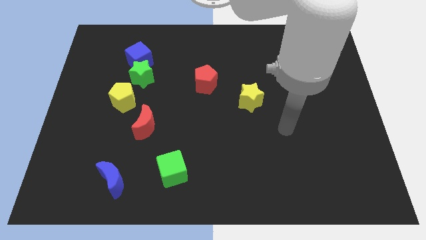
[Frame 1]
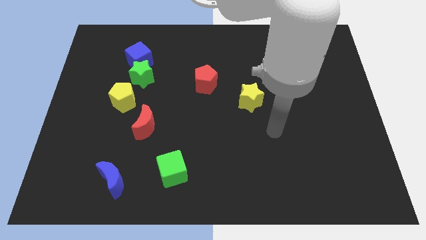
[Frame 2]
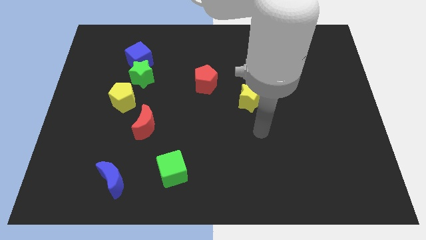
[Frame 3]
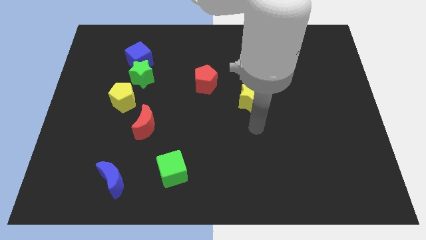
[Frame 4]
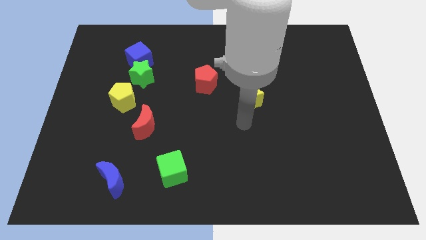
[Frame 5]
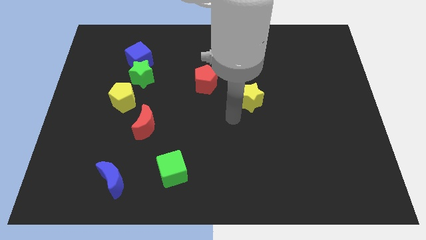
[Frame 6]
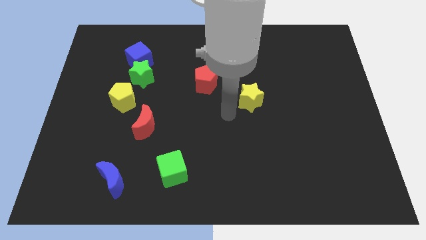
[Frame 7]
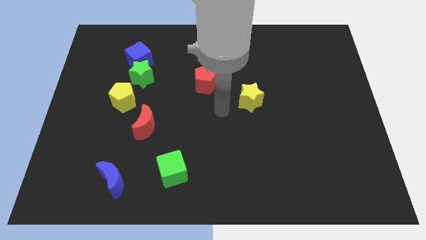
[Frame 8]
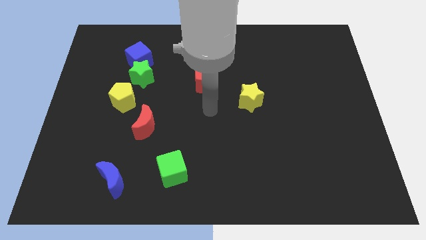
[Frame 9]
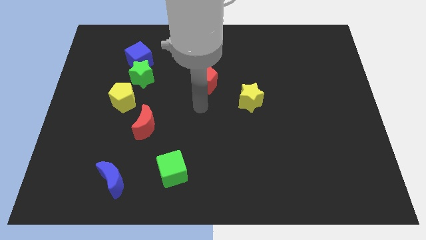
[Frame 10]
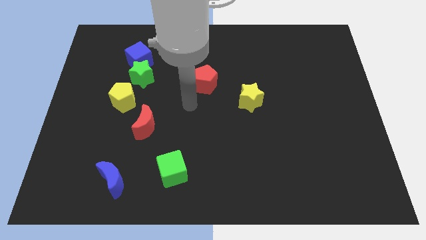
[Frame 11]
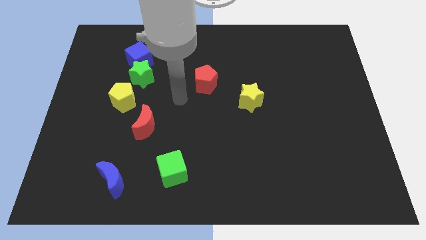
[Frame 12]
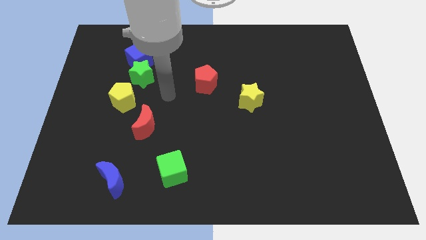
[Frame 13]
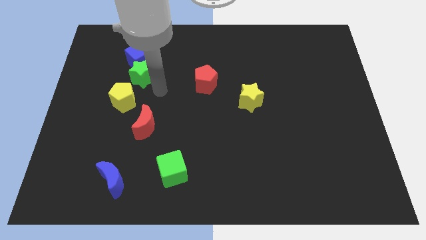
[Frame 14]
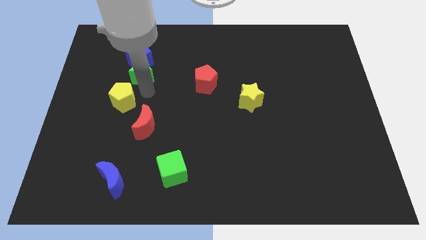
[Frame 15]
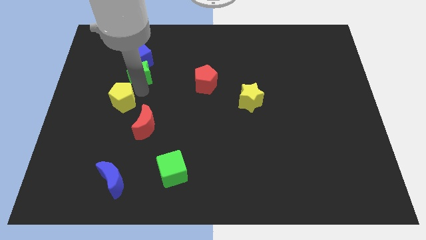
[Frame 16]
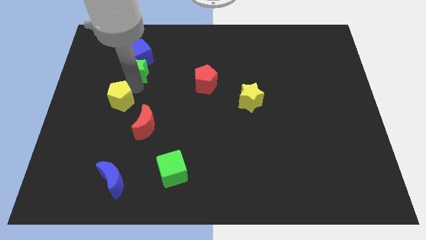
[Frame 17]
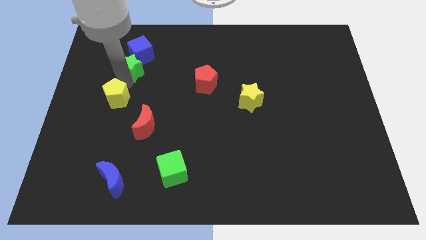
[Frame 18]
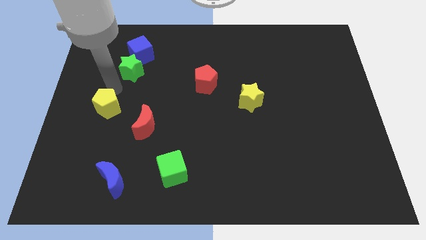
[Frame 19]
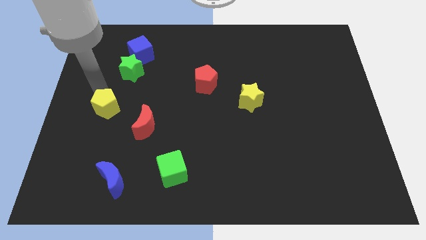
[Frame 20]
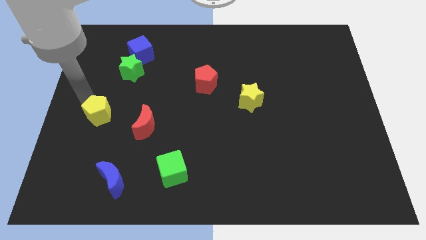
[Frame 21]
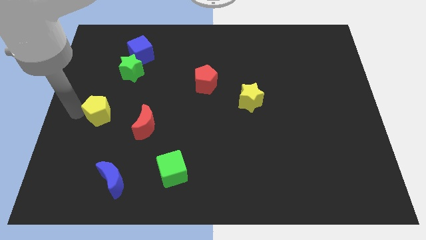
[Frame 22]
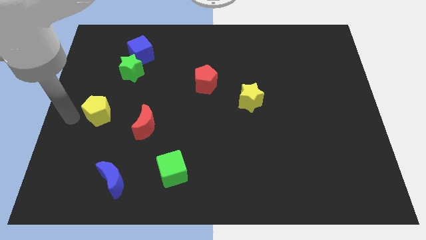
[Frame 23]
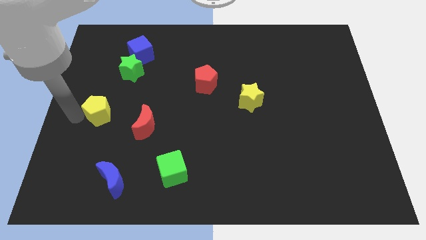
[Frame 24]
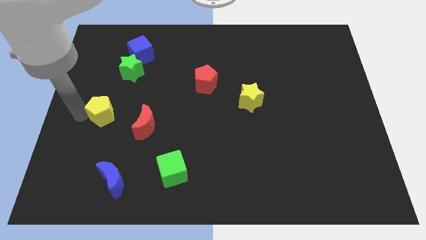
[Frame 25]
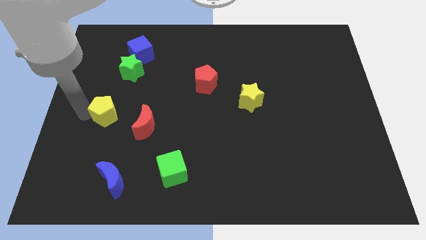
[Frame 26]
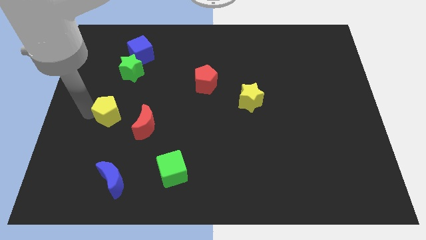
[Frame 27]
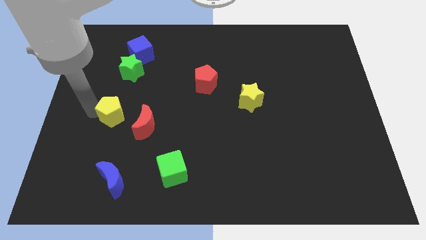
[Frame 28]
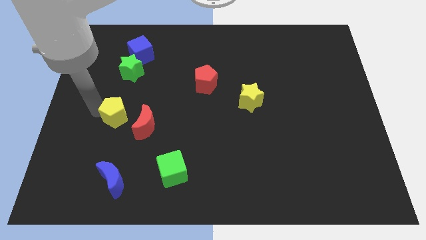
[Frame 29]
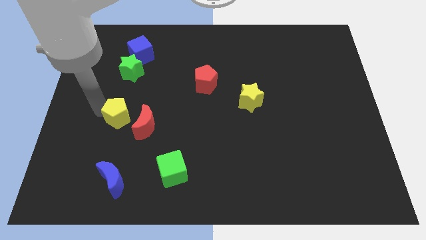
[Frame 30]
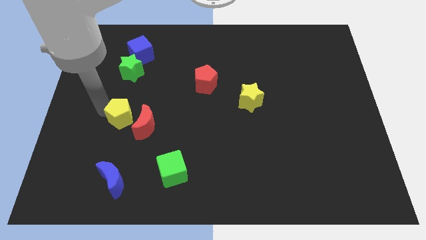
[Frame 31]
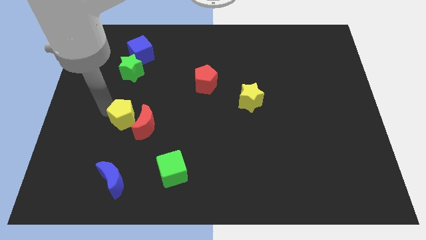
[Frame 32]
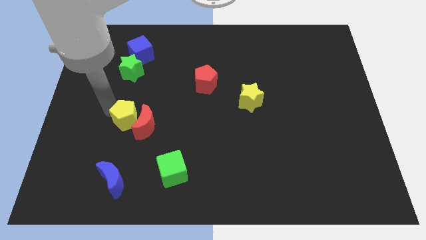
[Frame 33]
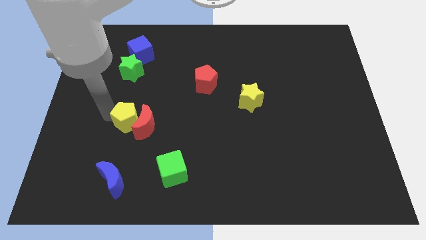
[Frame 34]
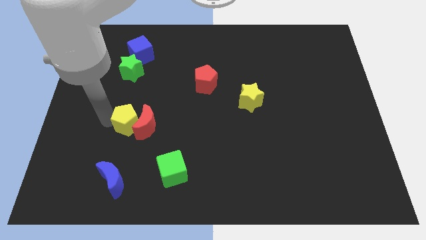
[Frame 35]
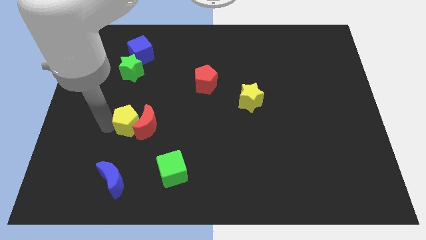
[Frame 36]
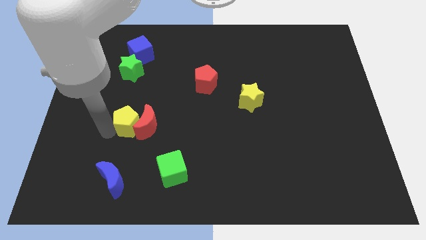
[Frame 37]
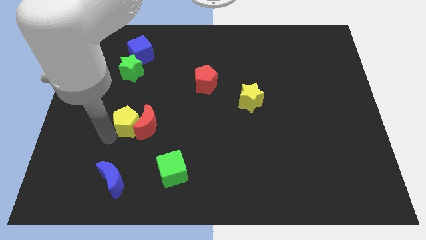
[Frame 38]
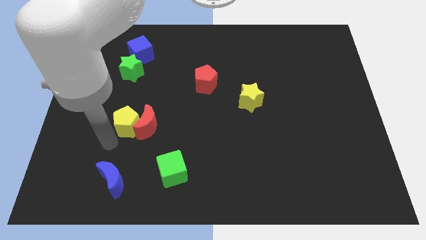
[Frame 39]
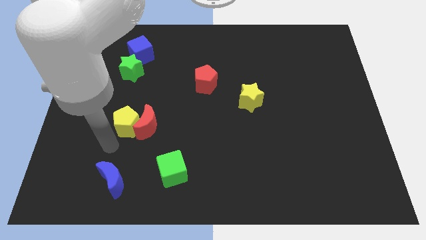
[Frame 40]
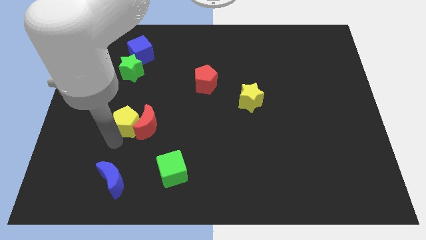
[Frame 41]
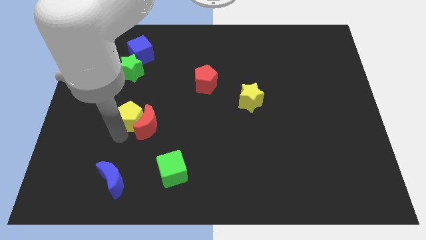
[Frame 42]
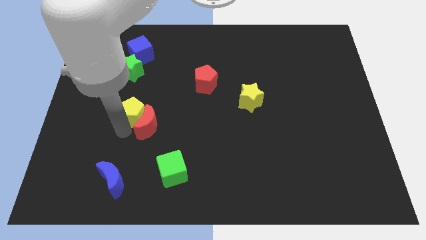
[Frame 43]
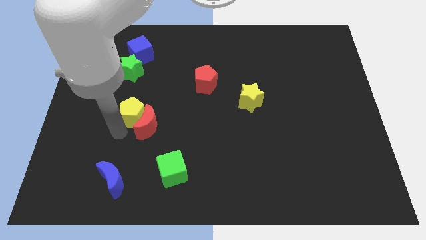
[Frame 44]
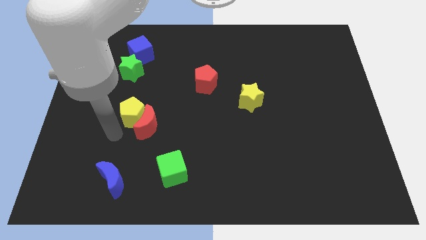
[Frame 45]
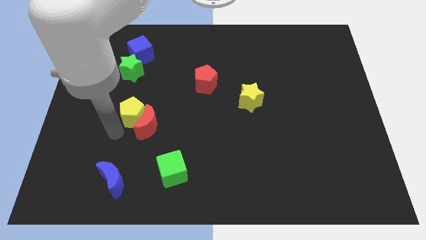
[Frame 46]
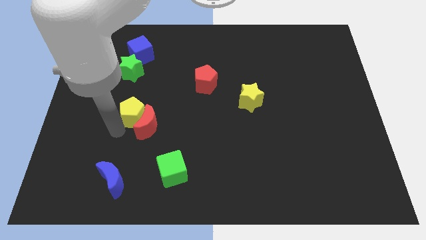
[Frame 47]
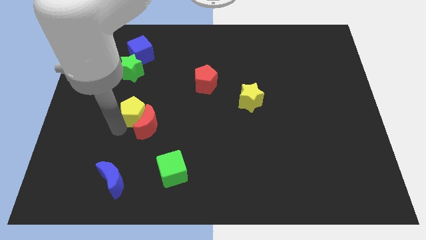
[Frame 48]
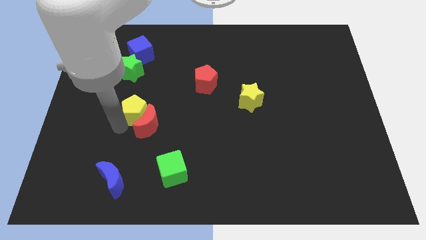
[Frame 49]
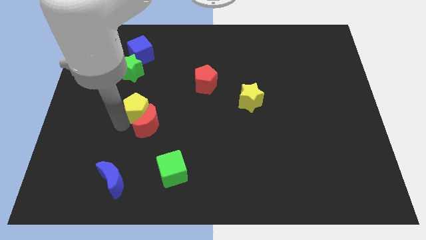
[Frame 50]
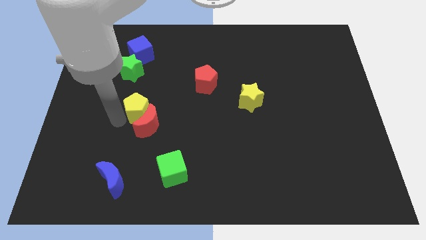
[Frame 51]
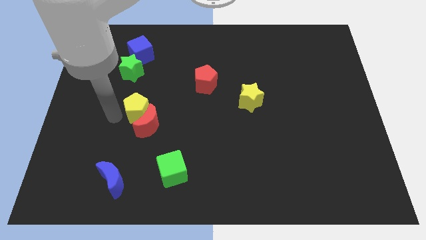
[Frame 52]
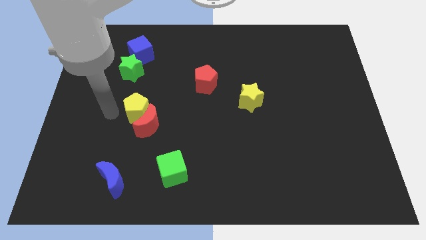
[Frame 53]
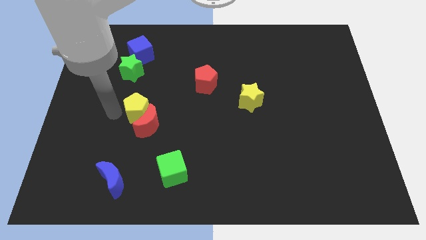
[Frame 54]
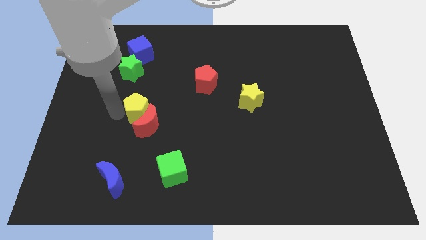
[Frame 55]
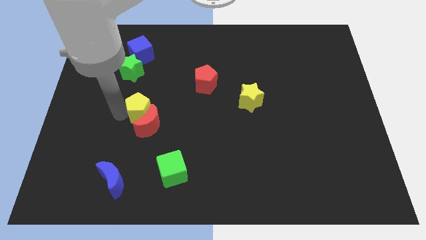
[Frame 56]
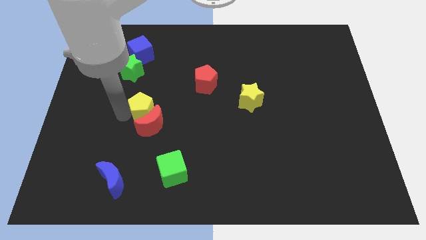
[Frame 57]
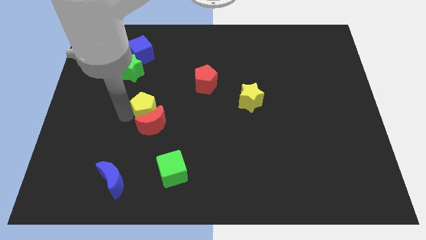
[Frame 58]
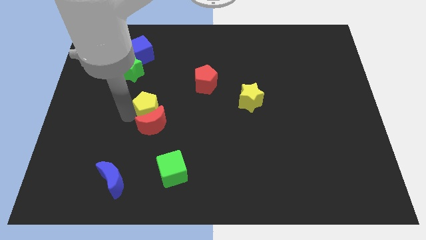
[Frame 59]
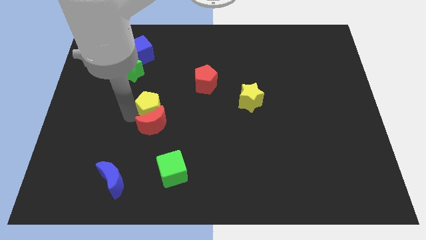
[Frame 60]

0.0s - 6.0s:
push the yellow pentagon a little downwards and right

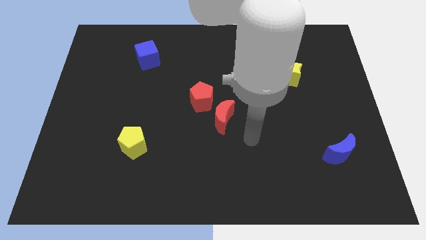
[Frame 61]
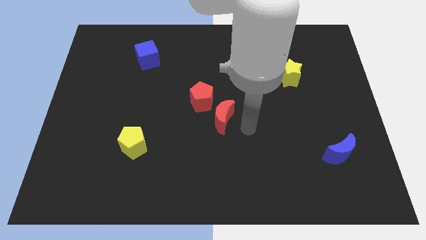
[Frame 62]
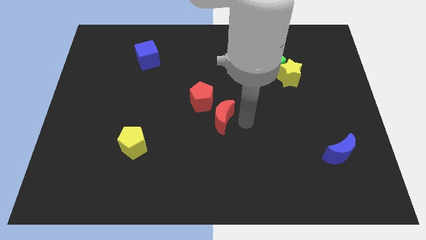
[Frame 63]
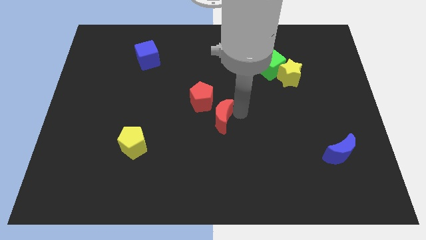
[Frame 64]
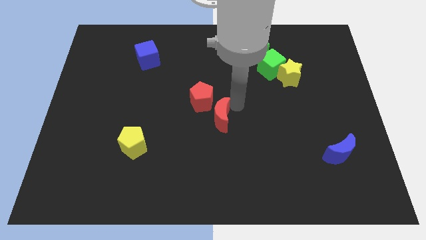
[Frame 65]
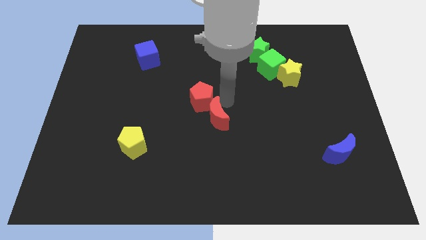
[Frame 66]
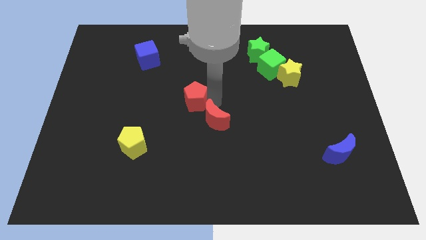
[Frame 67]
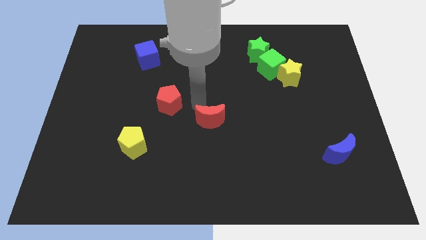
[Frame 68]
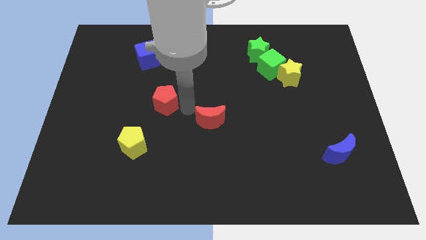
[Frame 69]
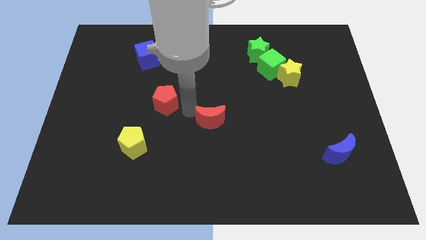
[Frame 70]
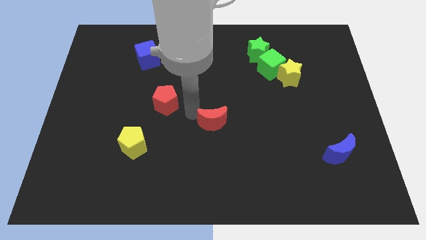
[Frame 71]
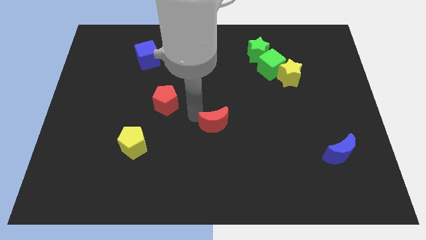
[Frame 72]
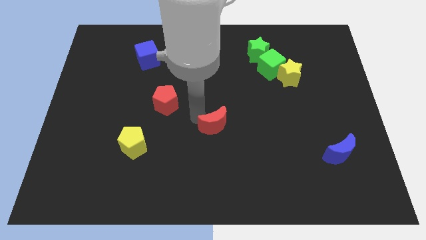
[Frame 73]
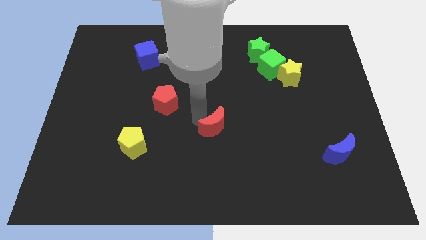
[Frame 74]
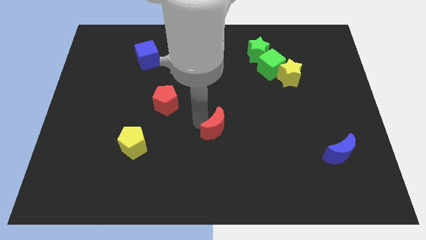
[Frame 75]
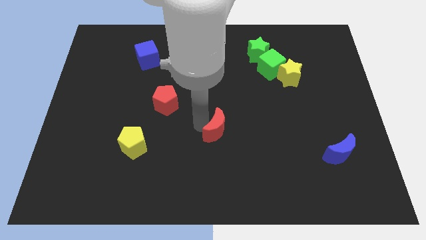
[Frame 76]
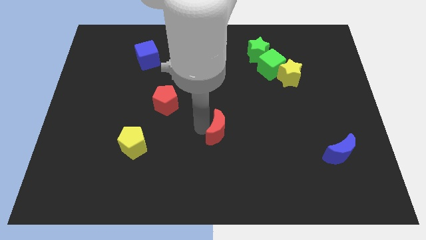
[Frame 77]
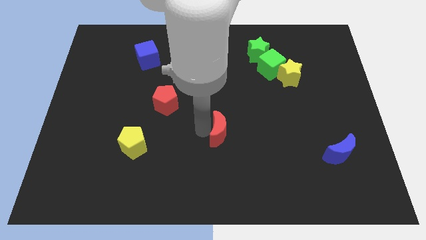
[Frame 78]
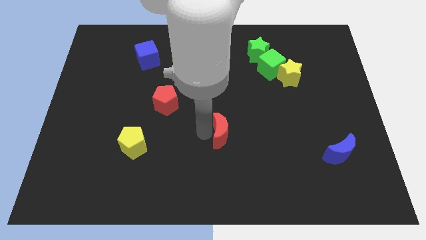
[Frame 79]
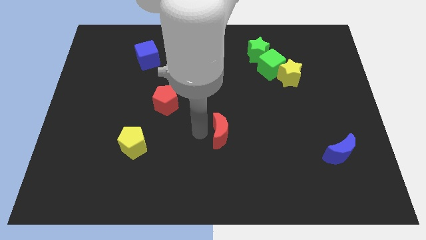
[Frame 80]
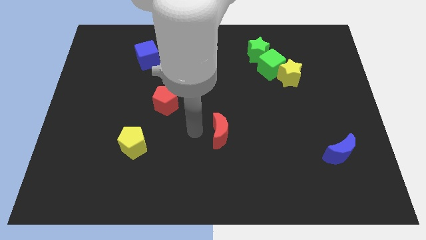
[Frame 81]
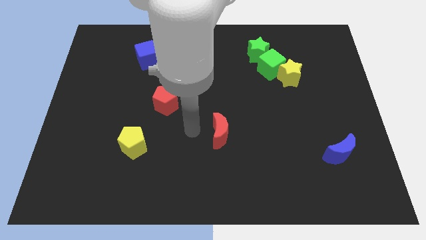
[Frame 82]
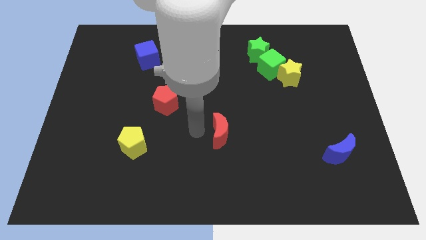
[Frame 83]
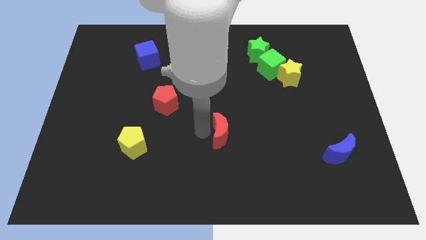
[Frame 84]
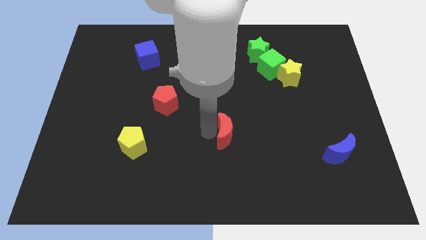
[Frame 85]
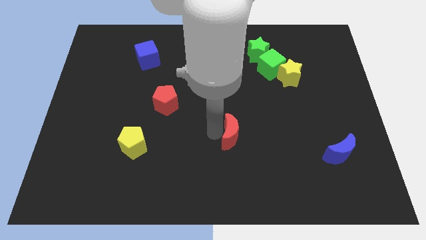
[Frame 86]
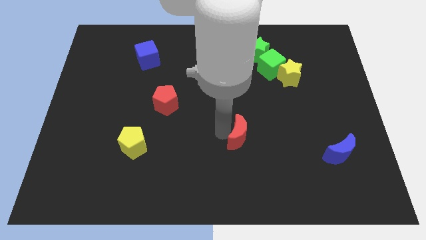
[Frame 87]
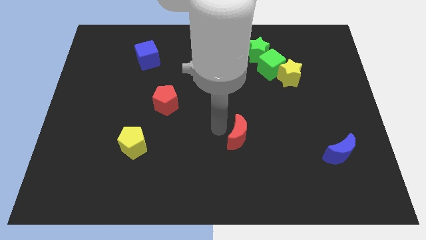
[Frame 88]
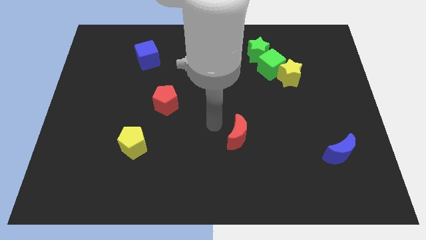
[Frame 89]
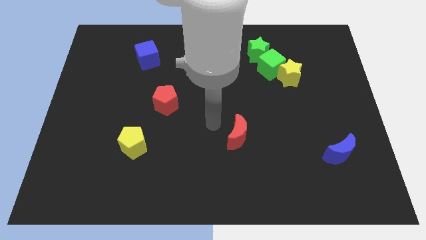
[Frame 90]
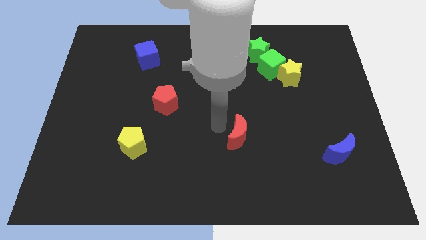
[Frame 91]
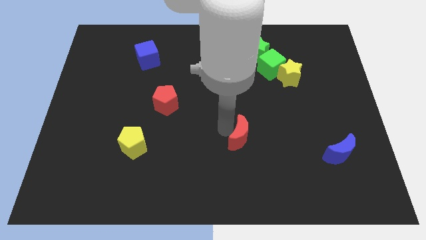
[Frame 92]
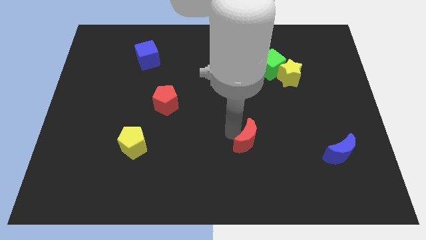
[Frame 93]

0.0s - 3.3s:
slide the red moon a little bit diagonally down and right
